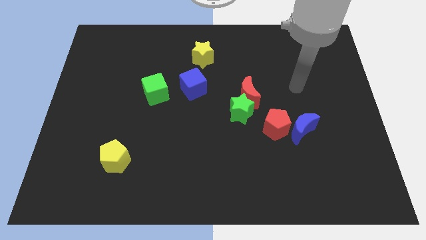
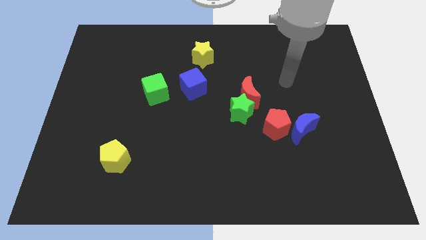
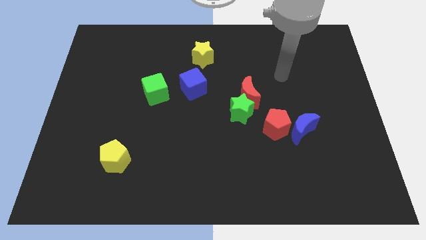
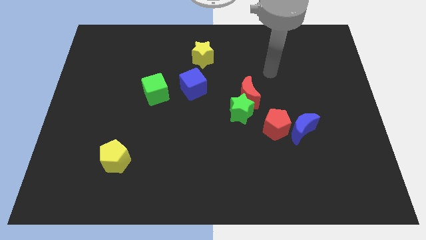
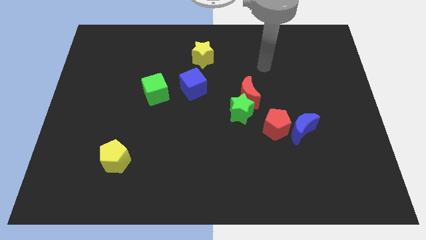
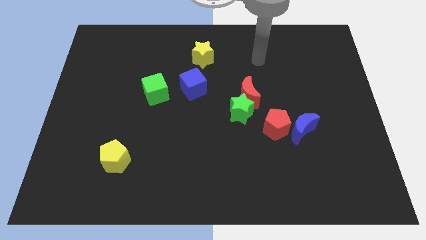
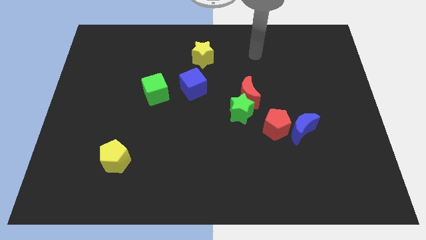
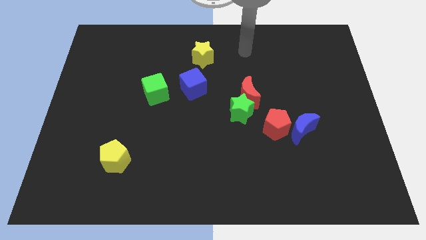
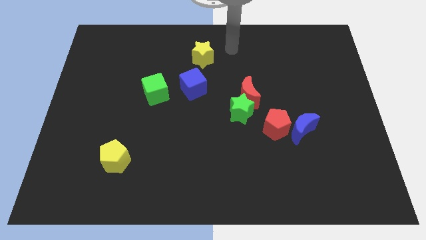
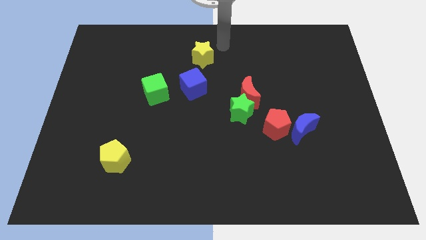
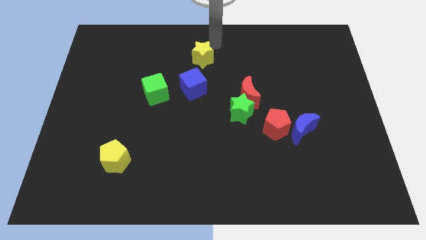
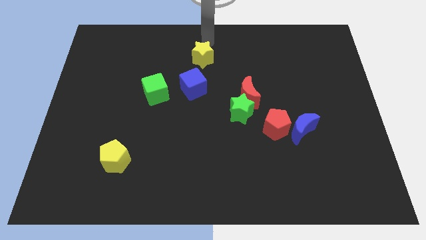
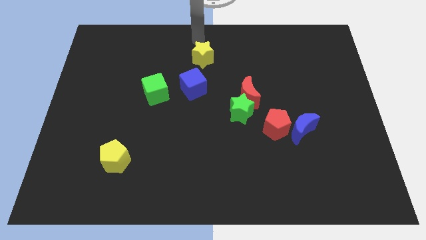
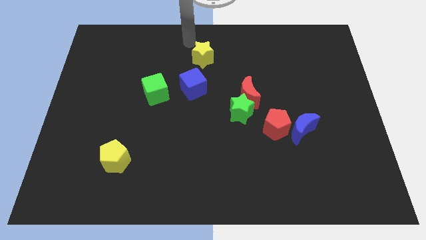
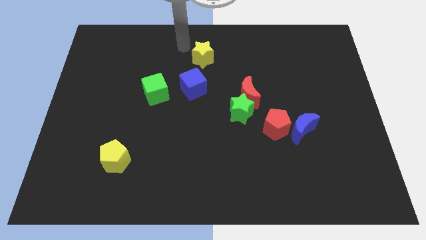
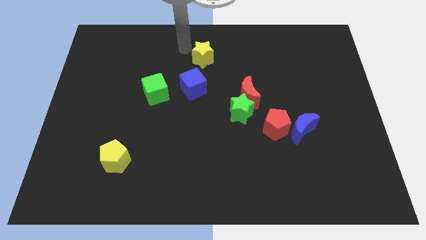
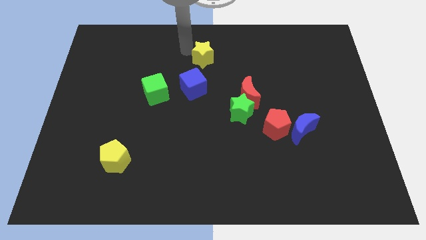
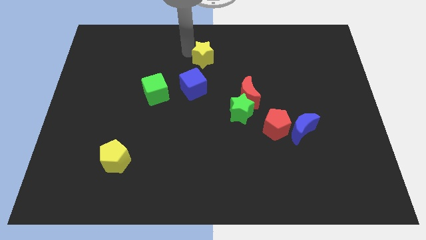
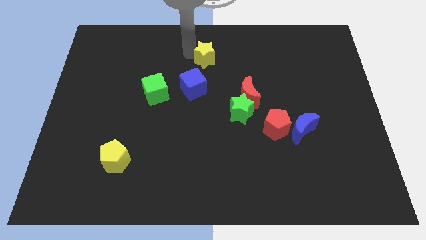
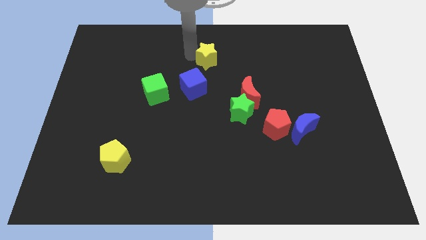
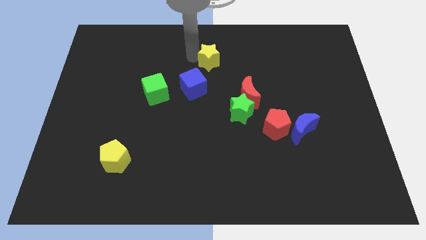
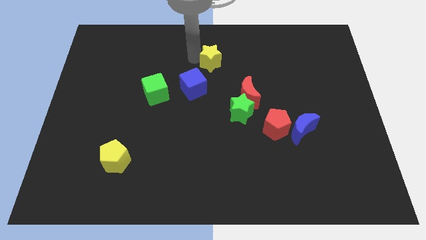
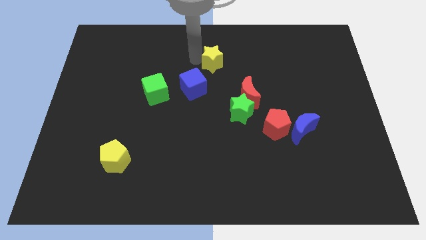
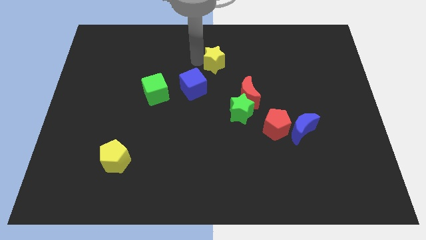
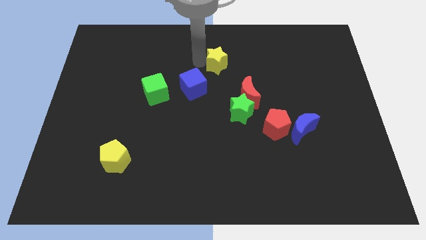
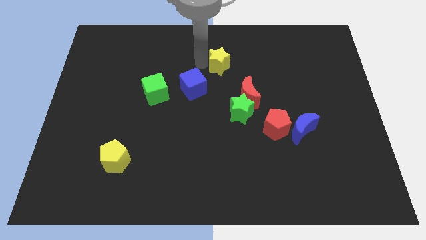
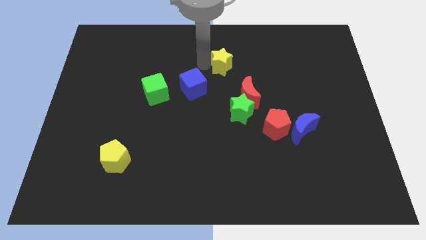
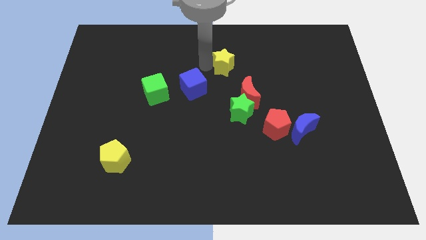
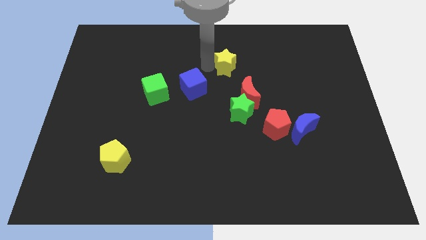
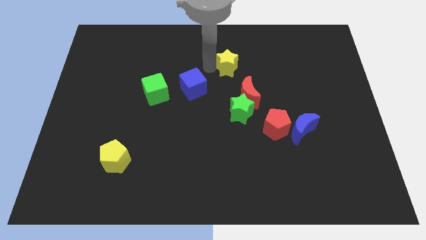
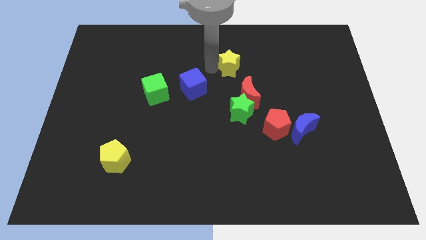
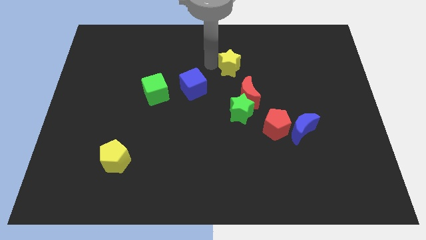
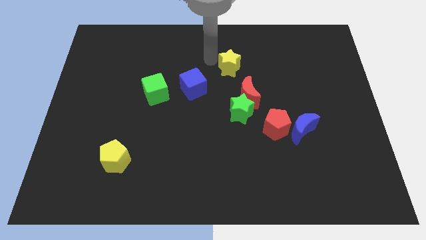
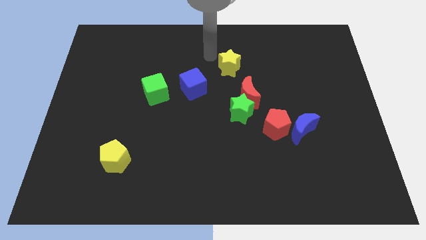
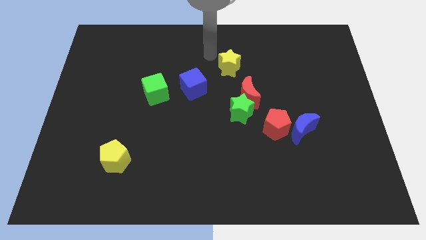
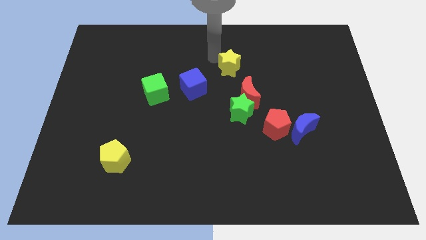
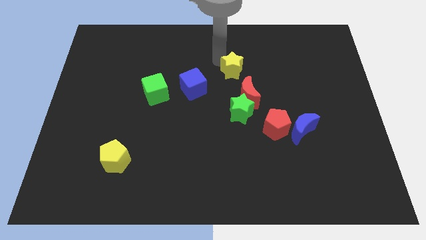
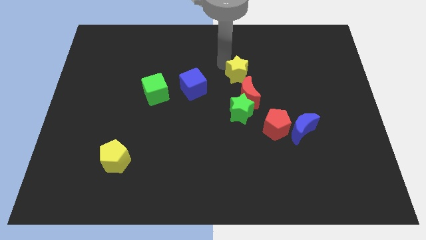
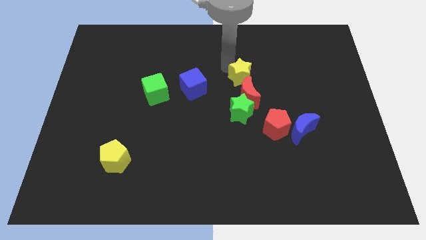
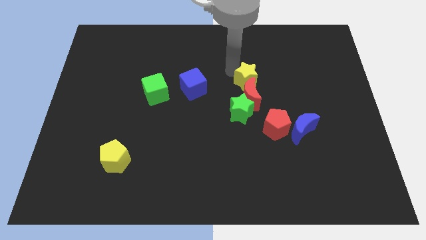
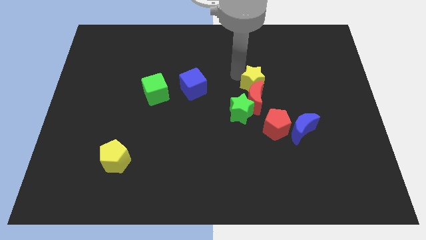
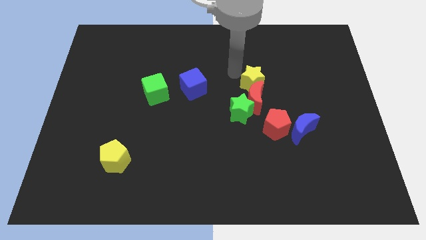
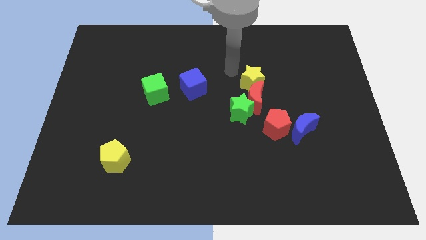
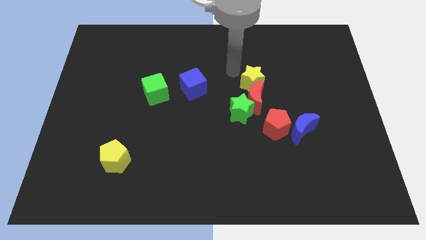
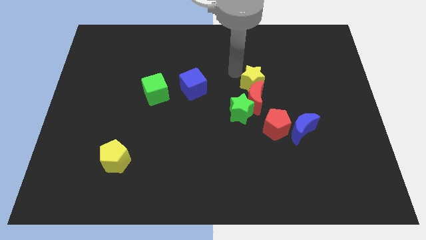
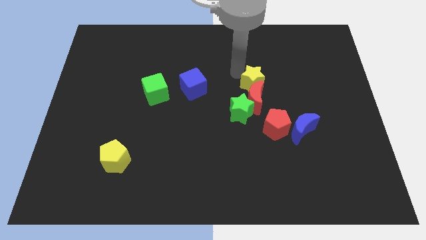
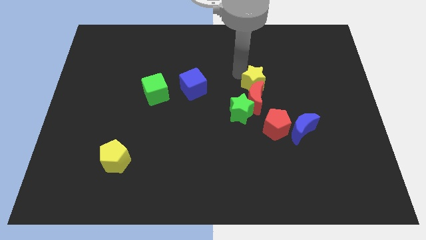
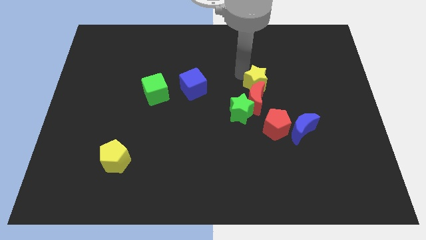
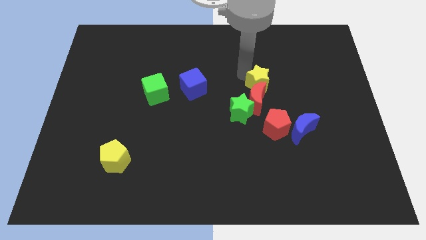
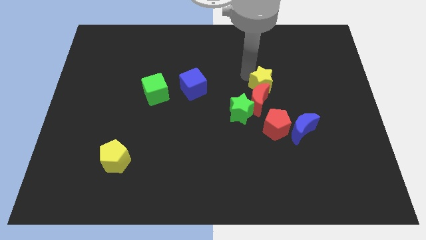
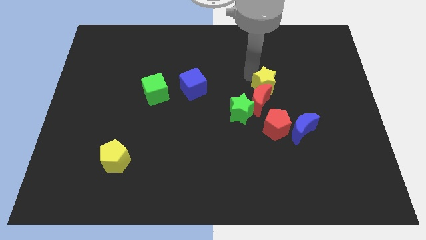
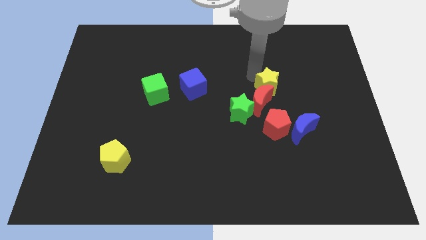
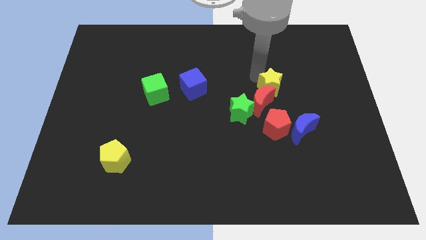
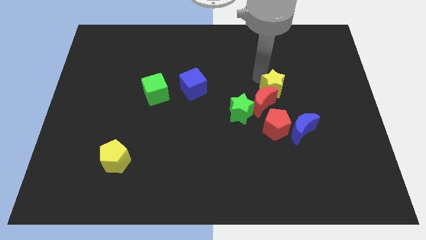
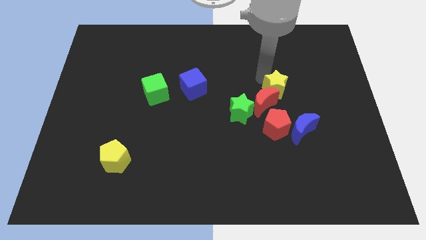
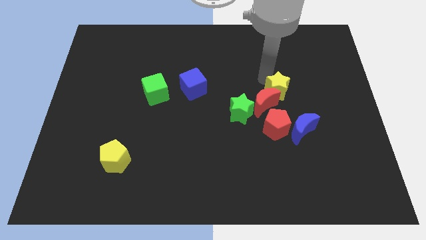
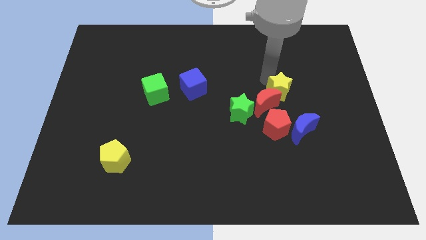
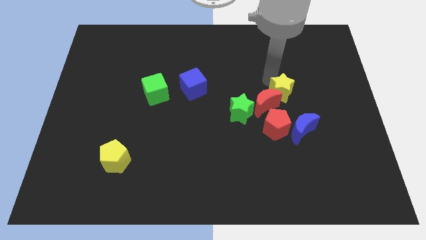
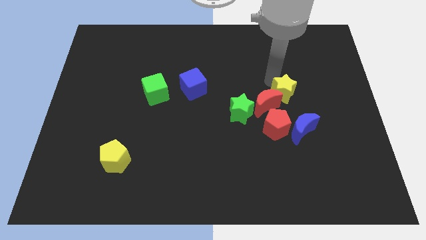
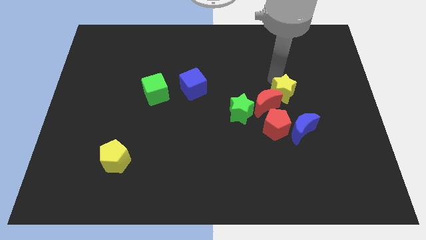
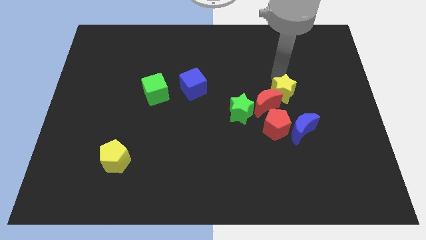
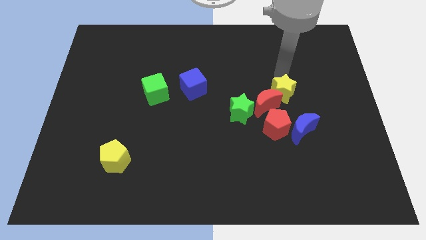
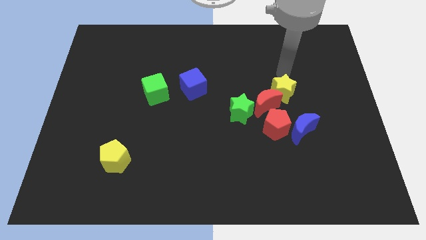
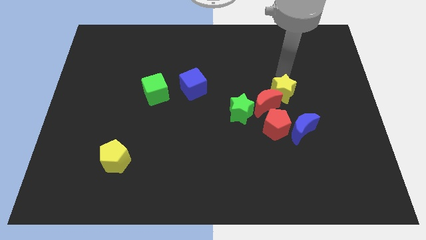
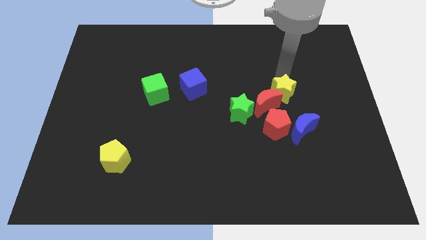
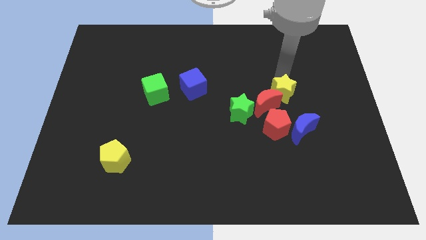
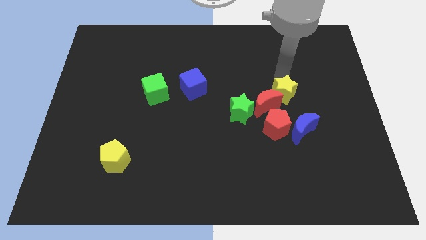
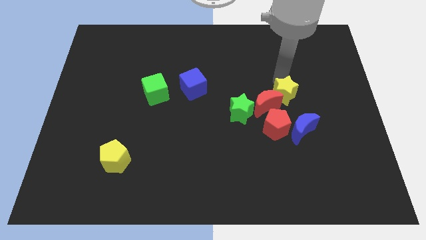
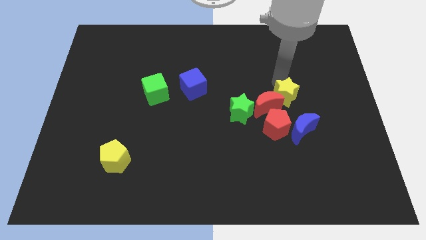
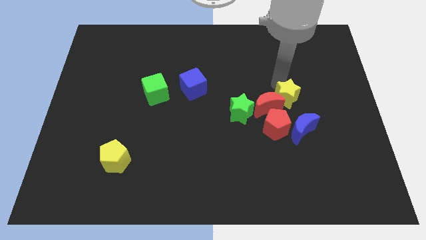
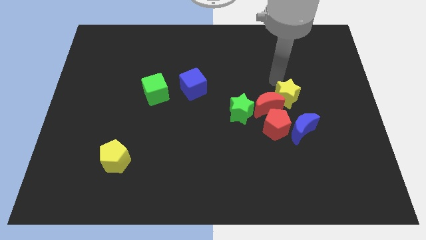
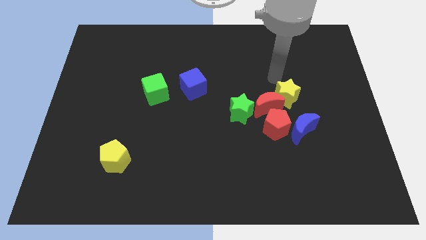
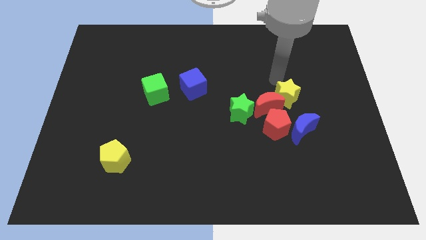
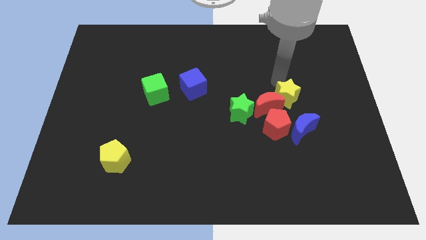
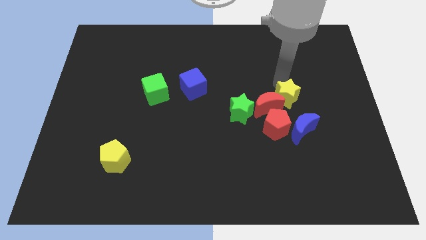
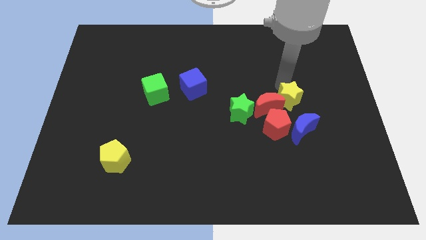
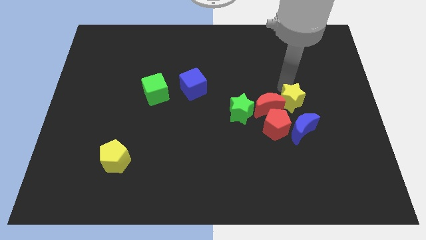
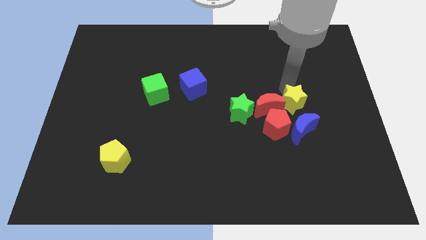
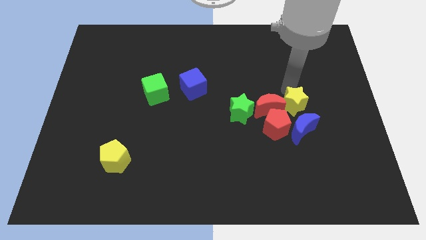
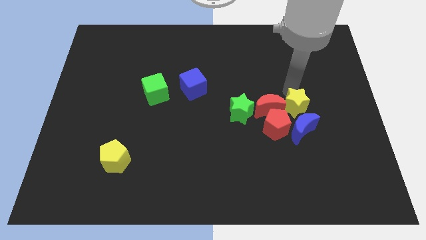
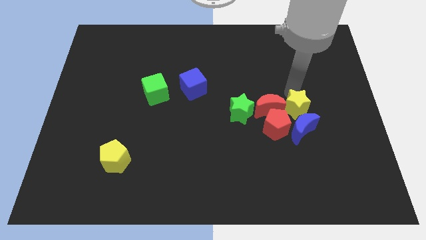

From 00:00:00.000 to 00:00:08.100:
move the yellow star next to the blue moon
